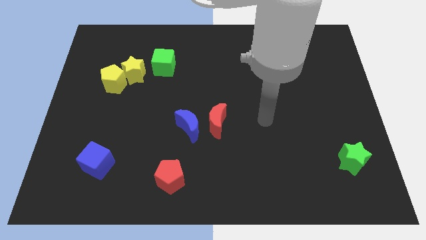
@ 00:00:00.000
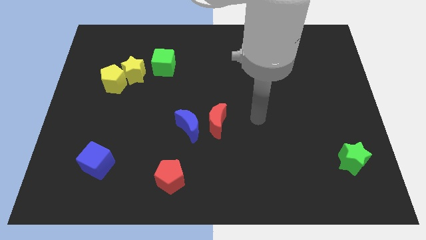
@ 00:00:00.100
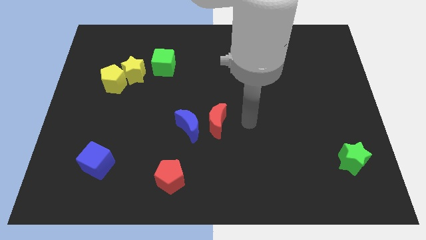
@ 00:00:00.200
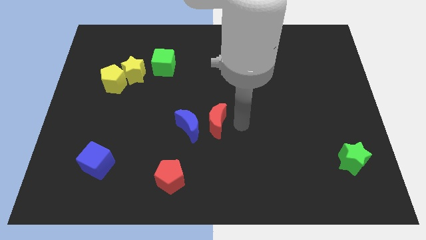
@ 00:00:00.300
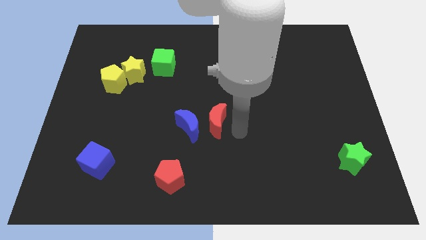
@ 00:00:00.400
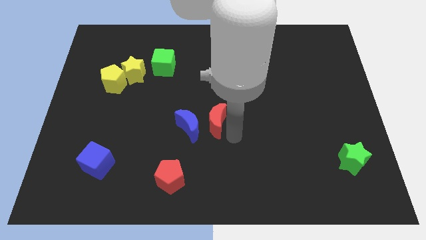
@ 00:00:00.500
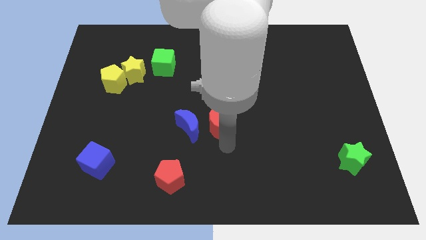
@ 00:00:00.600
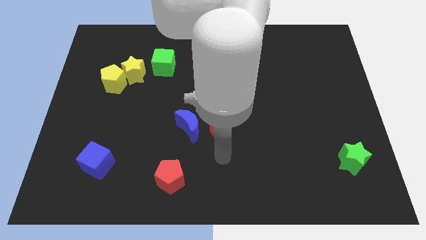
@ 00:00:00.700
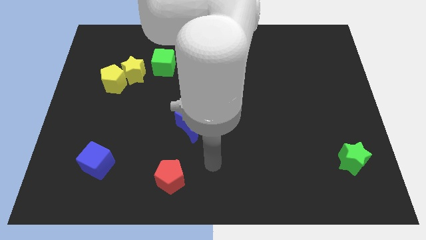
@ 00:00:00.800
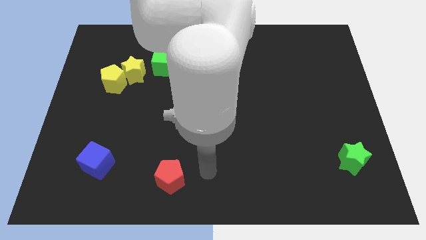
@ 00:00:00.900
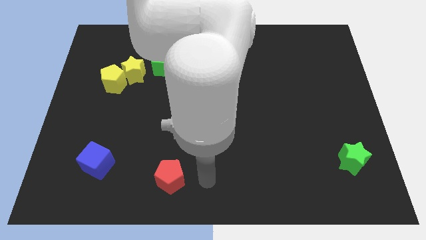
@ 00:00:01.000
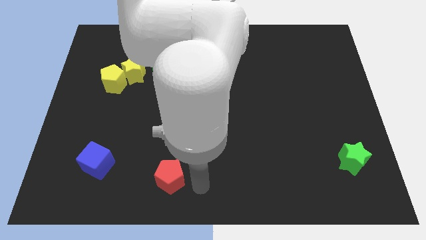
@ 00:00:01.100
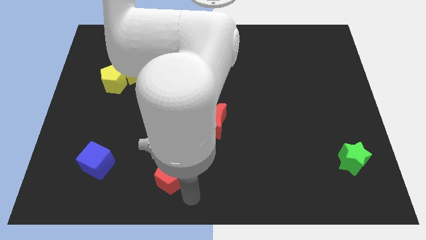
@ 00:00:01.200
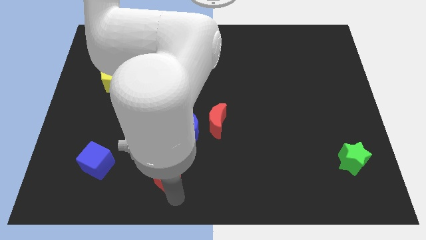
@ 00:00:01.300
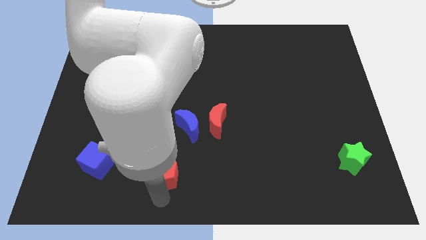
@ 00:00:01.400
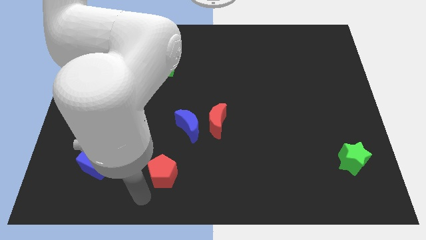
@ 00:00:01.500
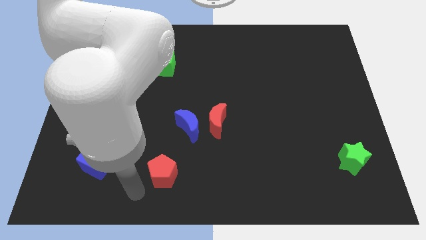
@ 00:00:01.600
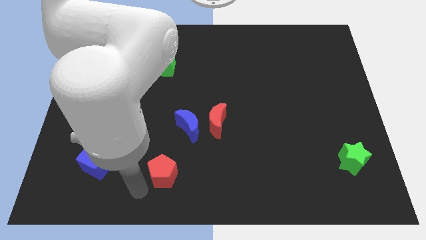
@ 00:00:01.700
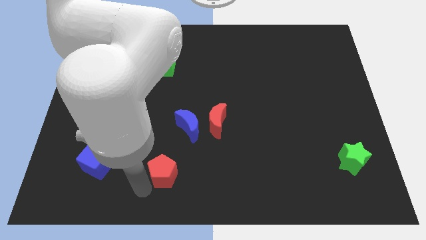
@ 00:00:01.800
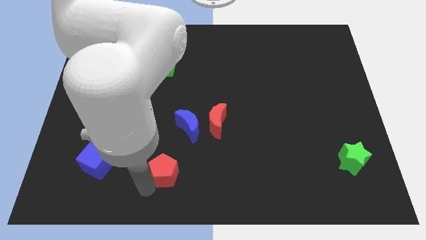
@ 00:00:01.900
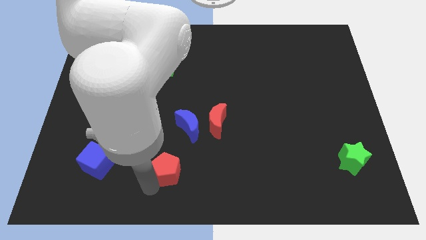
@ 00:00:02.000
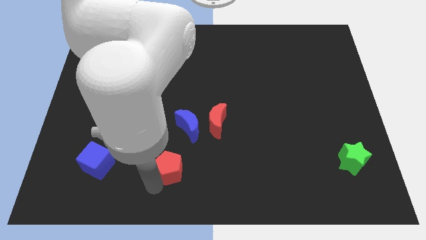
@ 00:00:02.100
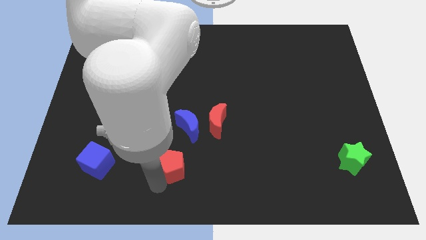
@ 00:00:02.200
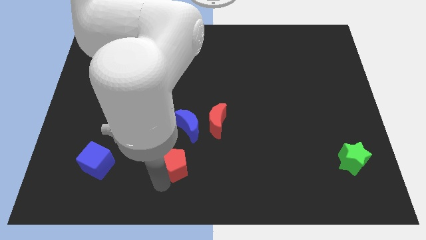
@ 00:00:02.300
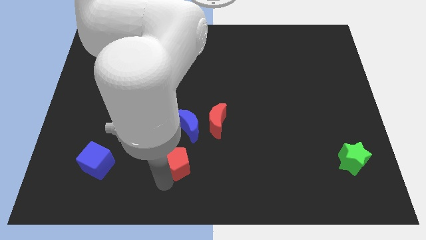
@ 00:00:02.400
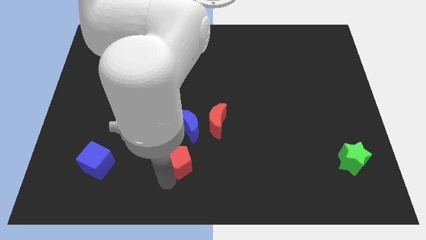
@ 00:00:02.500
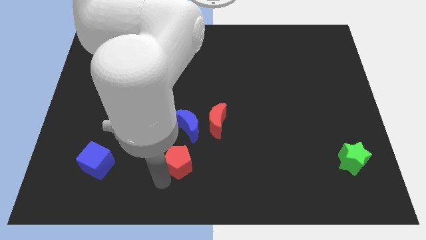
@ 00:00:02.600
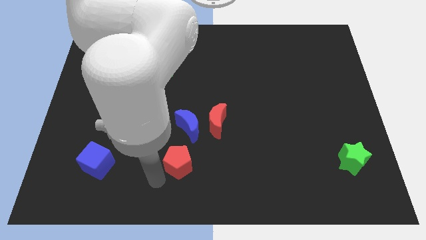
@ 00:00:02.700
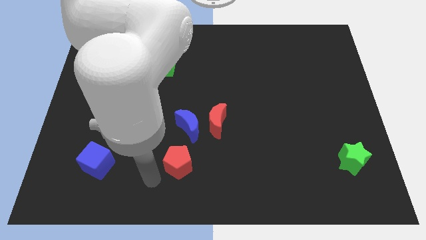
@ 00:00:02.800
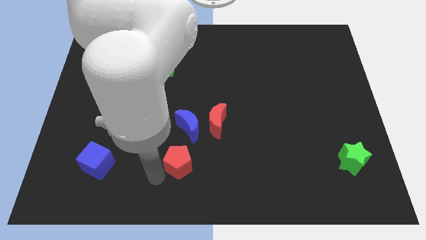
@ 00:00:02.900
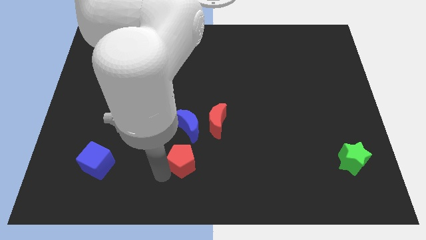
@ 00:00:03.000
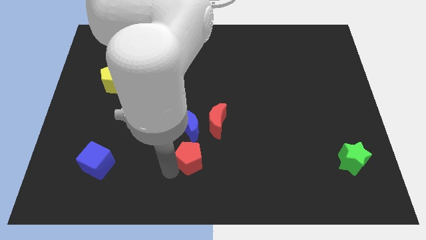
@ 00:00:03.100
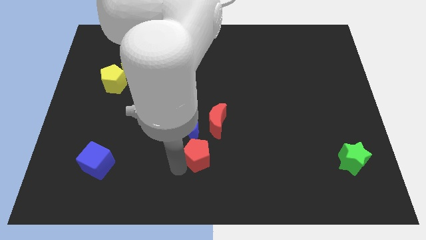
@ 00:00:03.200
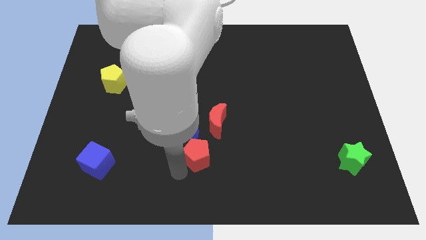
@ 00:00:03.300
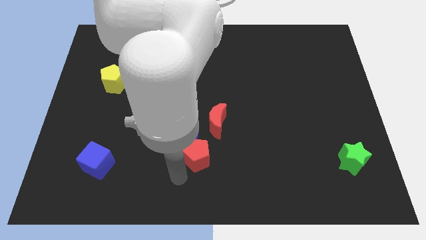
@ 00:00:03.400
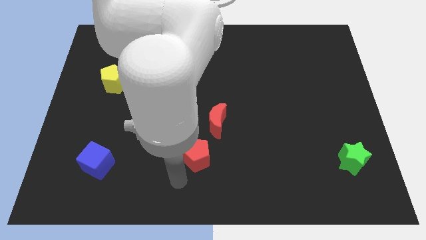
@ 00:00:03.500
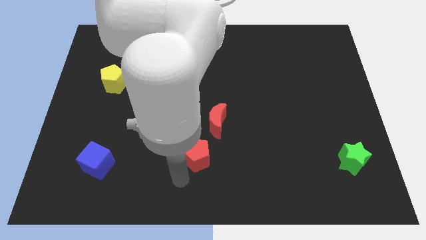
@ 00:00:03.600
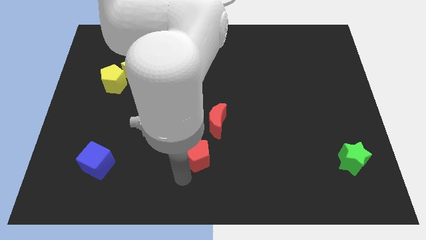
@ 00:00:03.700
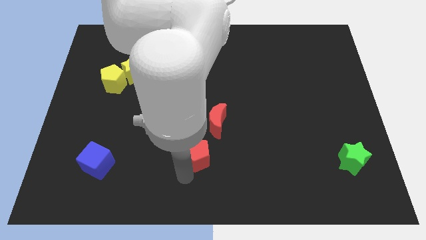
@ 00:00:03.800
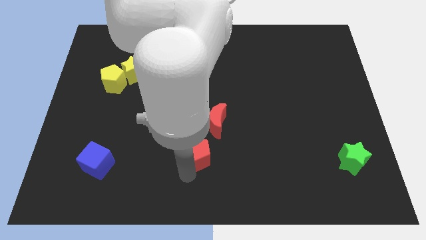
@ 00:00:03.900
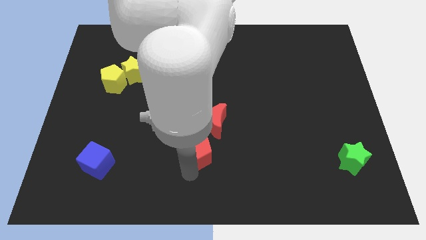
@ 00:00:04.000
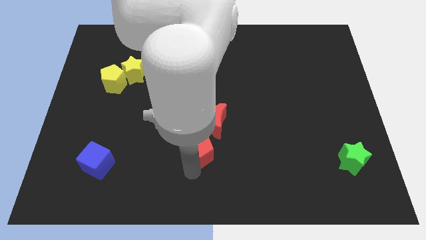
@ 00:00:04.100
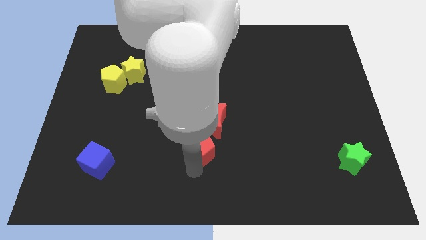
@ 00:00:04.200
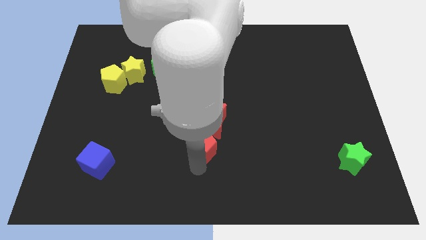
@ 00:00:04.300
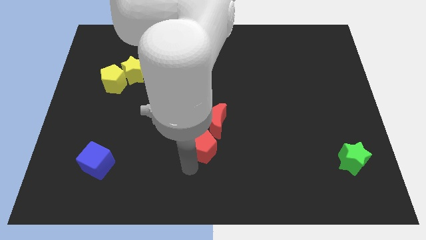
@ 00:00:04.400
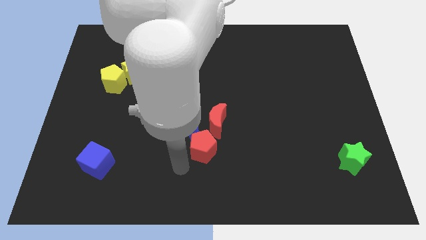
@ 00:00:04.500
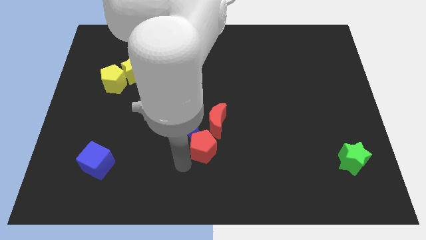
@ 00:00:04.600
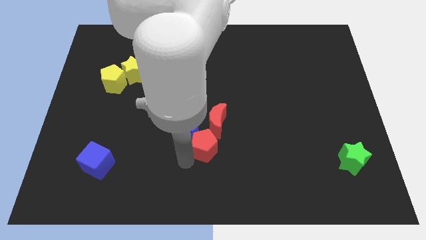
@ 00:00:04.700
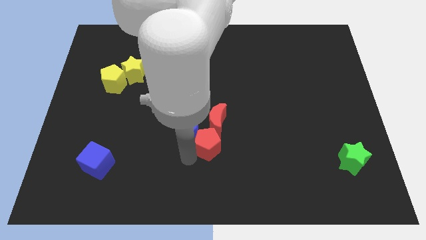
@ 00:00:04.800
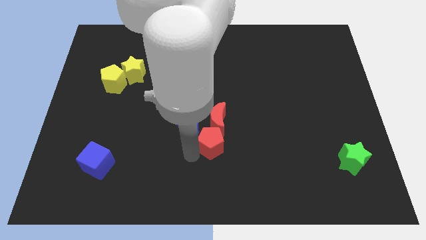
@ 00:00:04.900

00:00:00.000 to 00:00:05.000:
move the red pentagon to the right of the blue moon

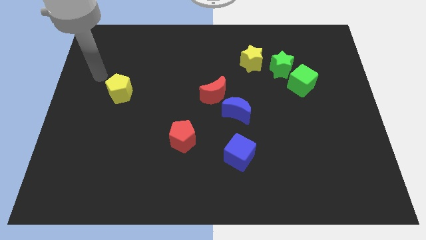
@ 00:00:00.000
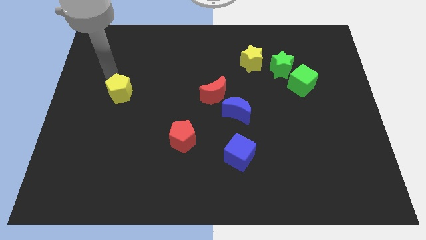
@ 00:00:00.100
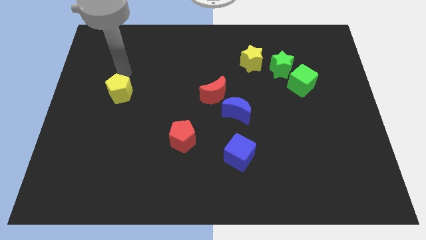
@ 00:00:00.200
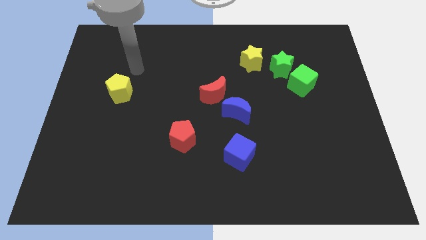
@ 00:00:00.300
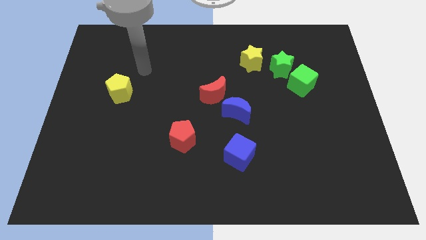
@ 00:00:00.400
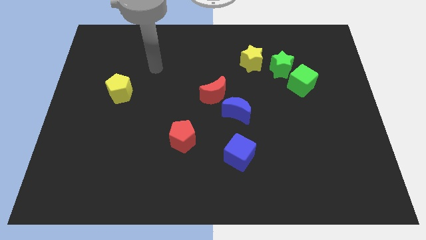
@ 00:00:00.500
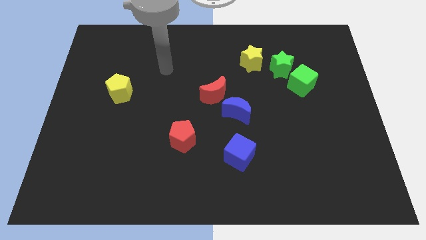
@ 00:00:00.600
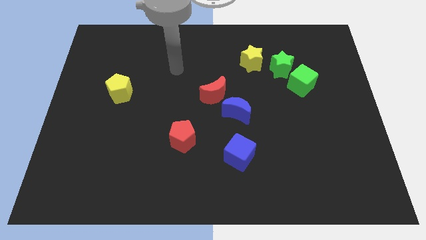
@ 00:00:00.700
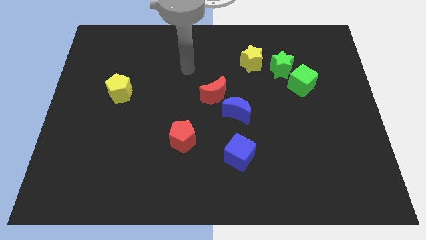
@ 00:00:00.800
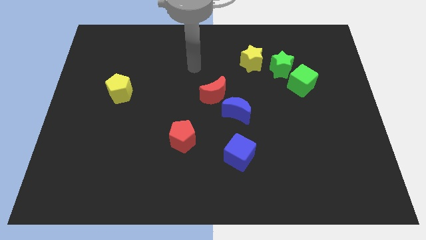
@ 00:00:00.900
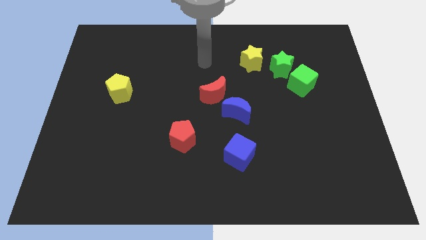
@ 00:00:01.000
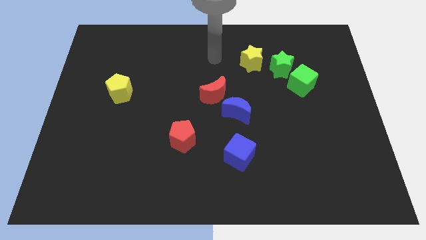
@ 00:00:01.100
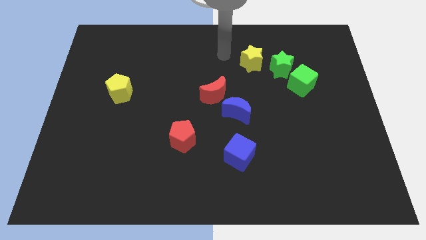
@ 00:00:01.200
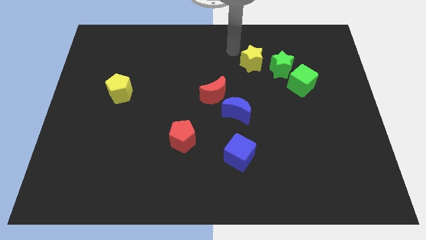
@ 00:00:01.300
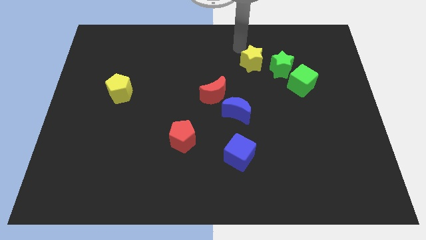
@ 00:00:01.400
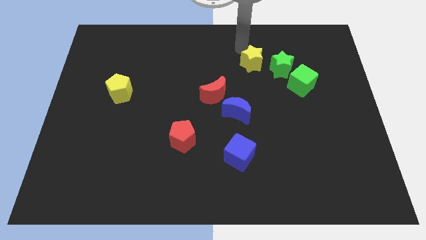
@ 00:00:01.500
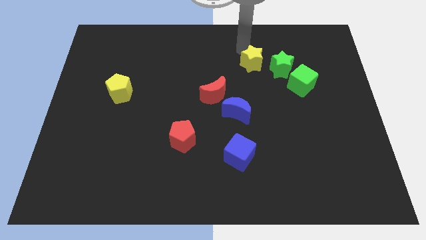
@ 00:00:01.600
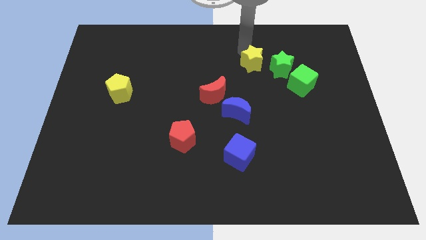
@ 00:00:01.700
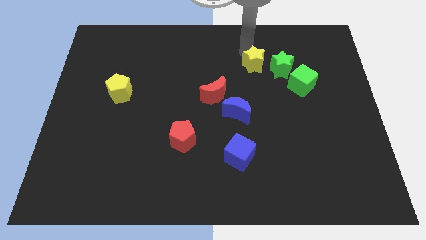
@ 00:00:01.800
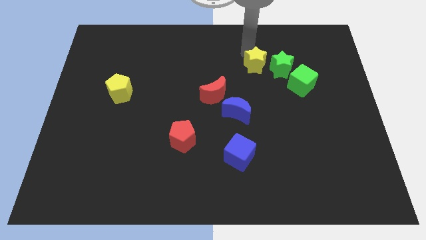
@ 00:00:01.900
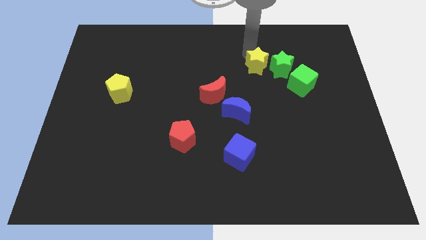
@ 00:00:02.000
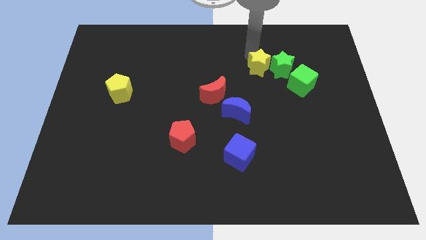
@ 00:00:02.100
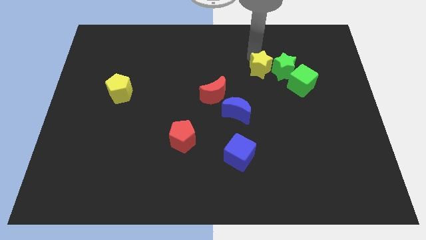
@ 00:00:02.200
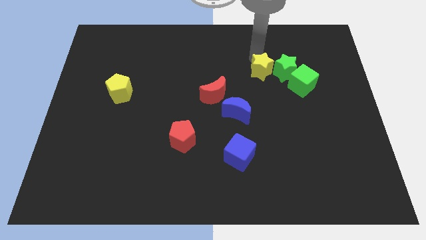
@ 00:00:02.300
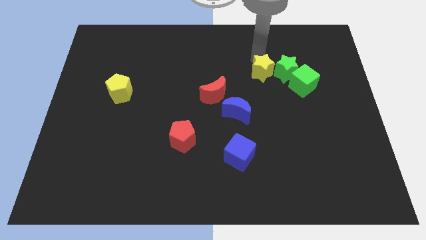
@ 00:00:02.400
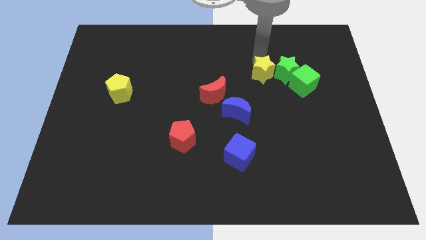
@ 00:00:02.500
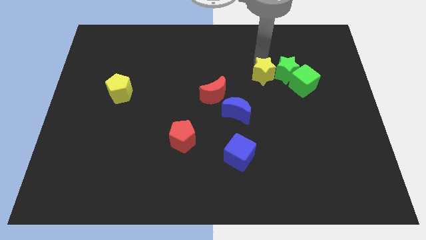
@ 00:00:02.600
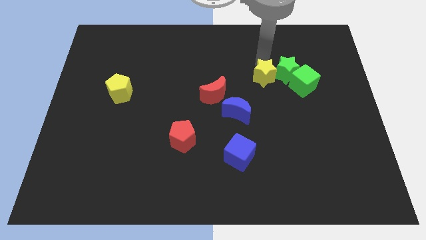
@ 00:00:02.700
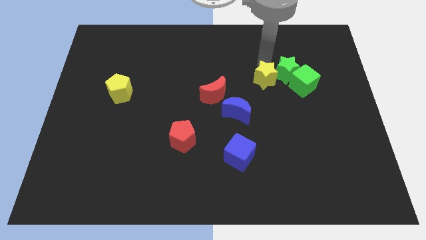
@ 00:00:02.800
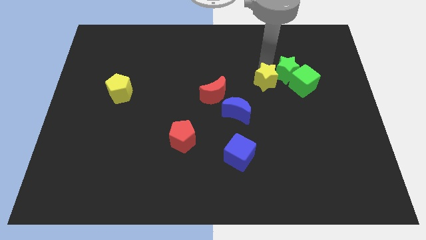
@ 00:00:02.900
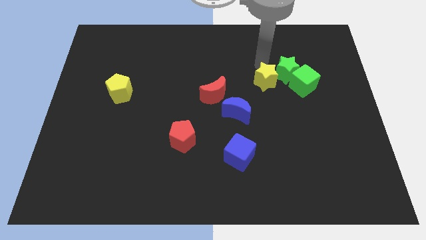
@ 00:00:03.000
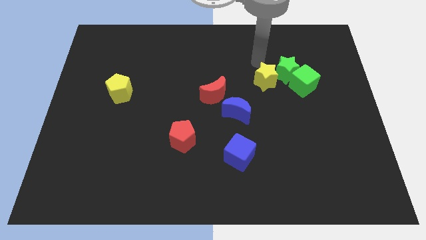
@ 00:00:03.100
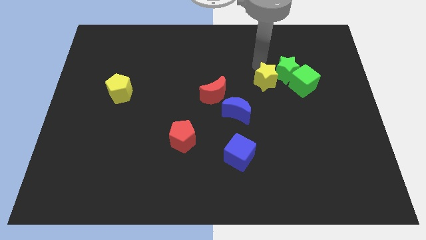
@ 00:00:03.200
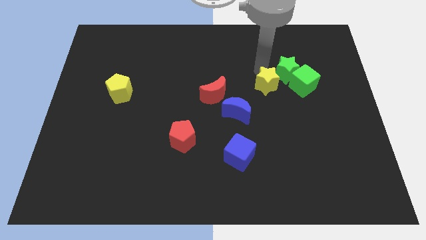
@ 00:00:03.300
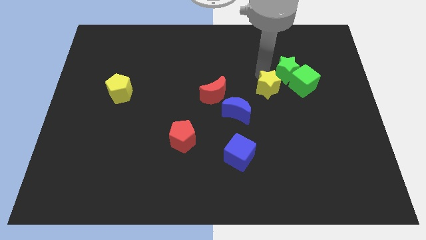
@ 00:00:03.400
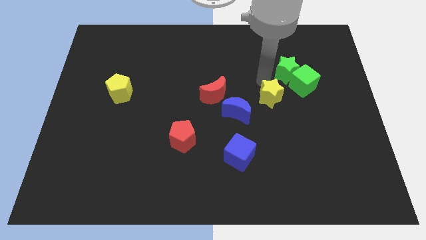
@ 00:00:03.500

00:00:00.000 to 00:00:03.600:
push the yellow star to the right side of the blue moon
